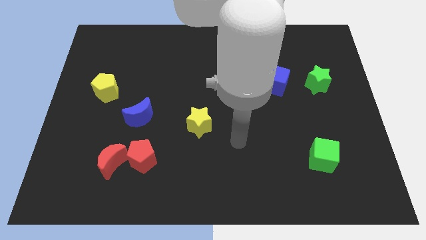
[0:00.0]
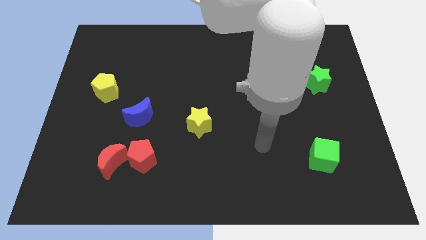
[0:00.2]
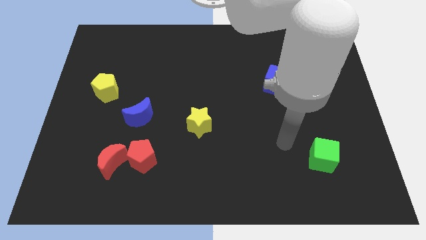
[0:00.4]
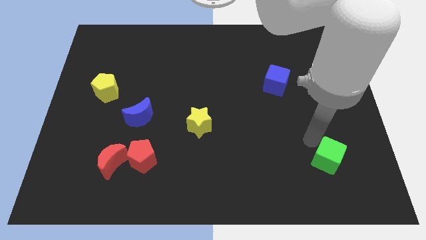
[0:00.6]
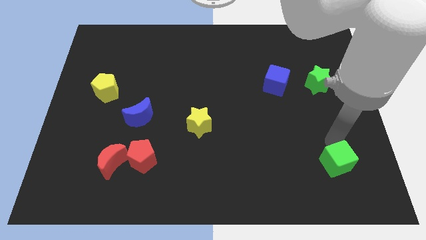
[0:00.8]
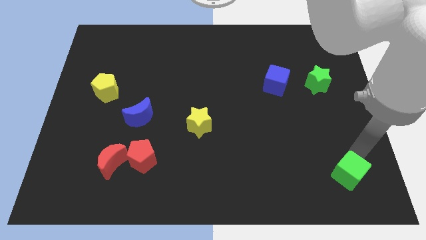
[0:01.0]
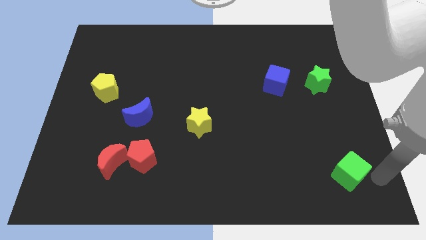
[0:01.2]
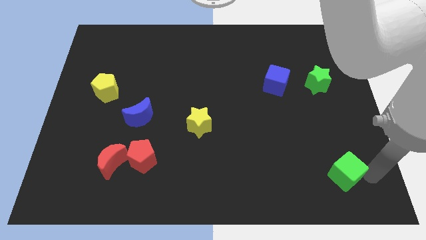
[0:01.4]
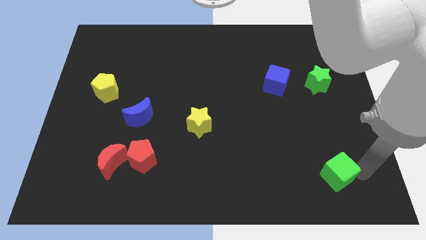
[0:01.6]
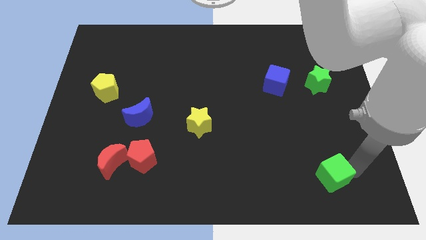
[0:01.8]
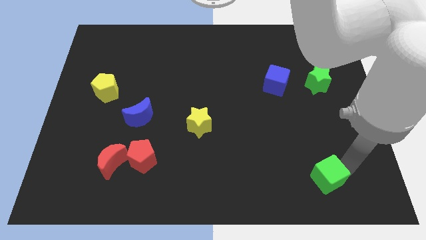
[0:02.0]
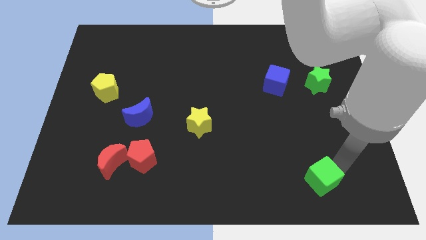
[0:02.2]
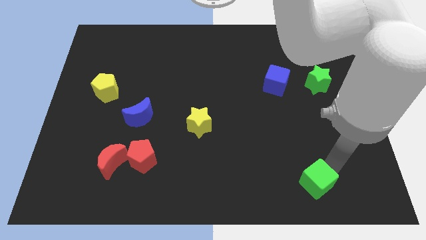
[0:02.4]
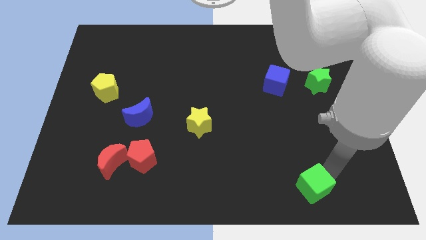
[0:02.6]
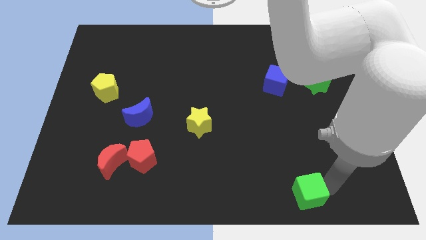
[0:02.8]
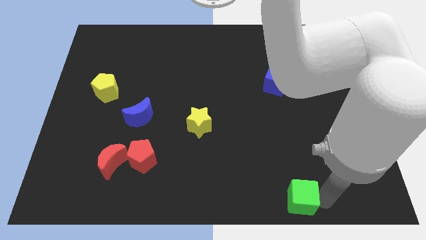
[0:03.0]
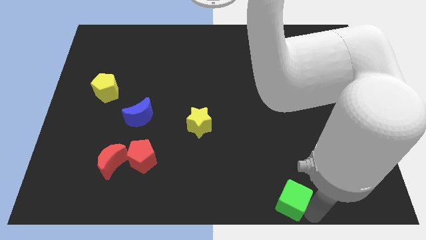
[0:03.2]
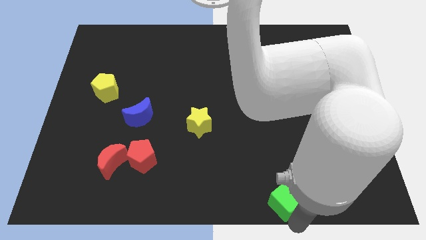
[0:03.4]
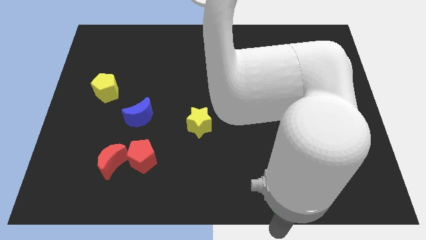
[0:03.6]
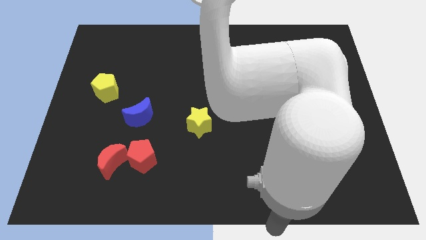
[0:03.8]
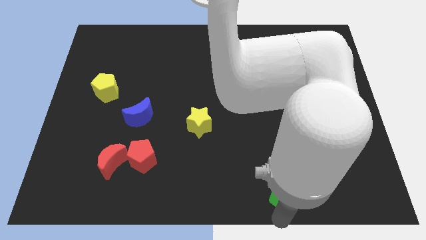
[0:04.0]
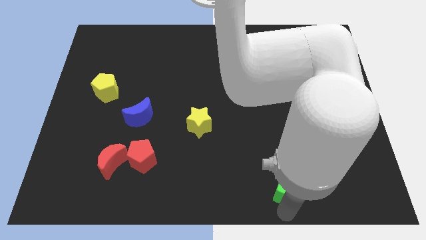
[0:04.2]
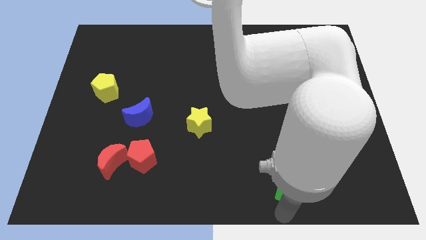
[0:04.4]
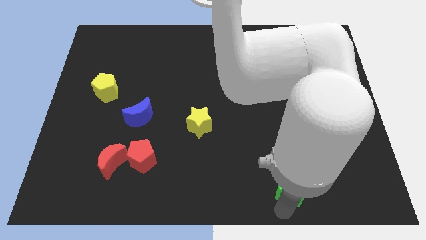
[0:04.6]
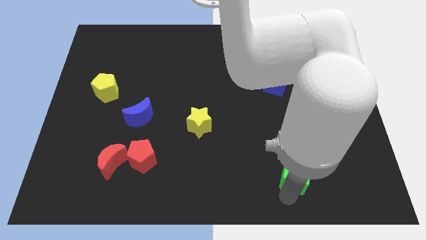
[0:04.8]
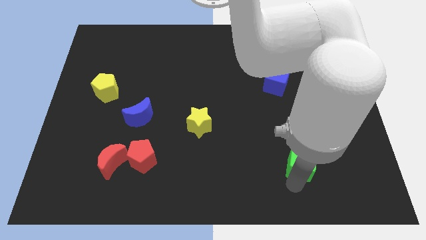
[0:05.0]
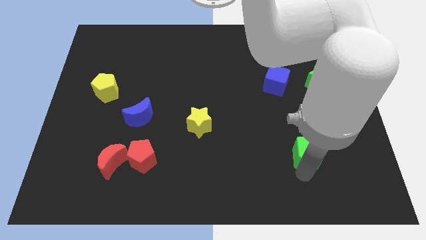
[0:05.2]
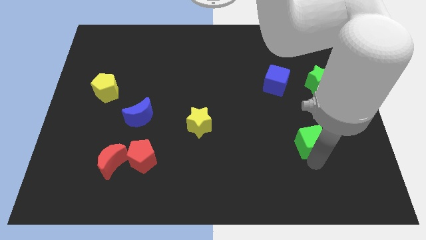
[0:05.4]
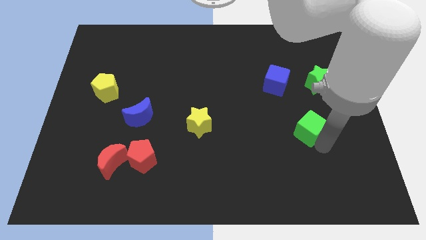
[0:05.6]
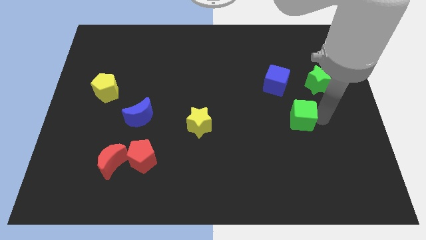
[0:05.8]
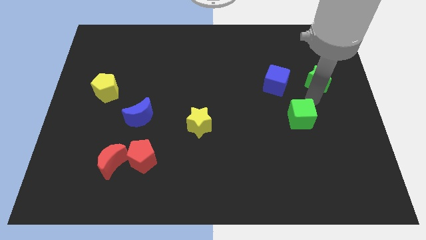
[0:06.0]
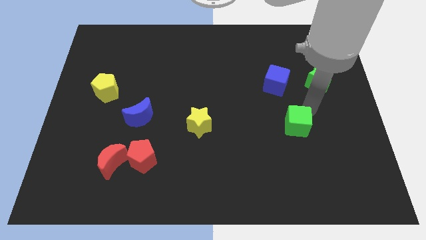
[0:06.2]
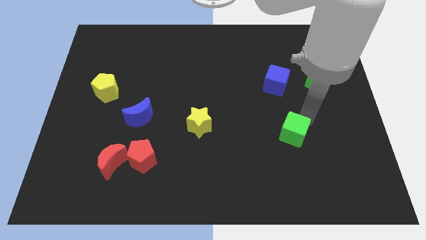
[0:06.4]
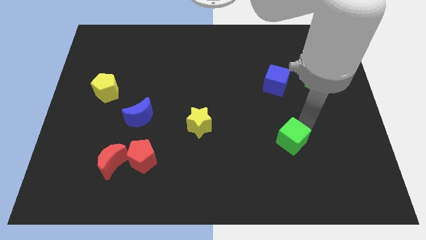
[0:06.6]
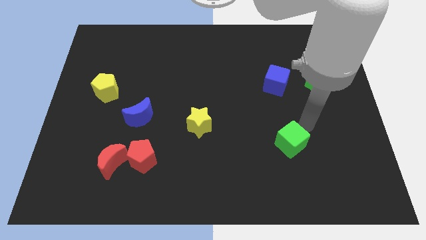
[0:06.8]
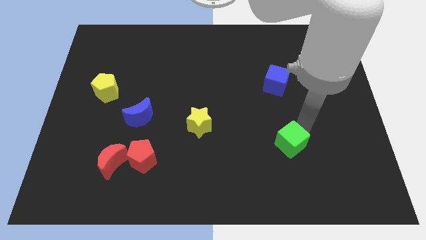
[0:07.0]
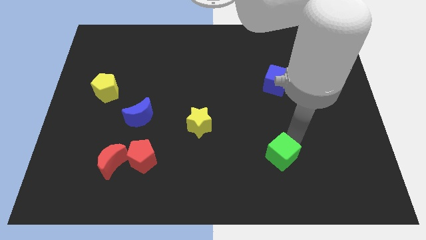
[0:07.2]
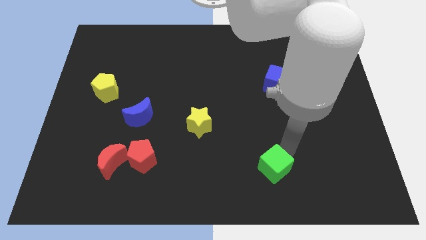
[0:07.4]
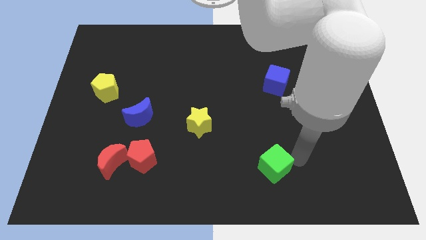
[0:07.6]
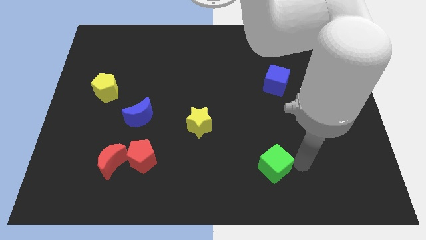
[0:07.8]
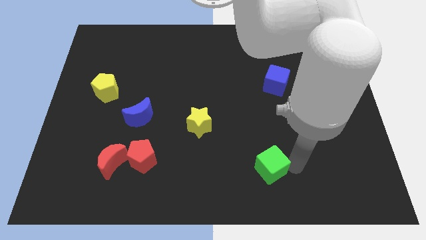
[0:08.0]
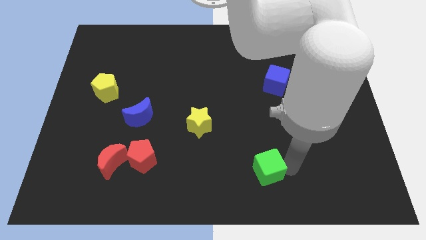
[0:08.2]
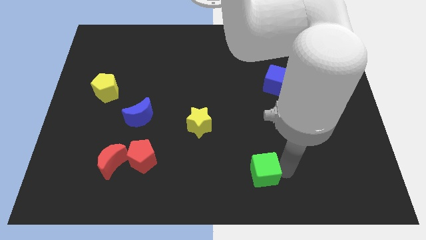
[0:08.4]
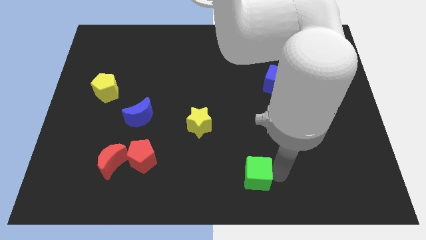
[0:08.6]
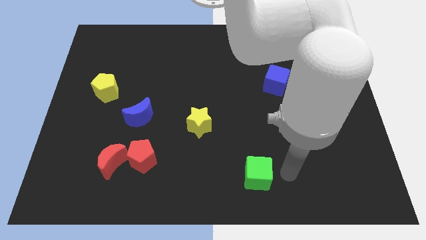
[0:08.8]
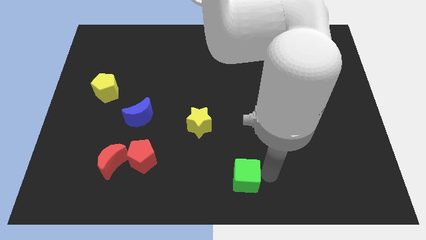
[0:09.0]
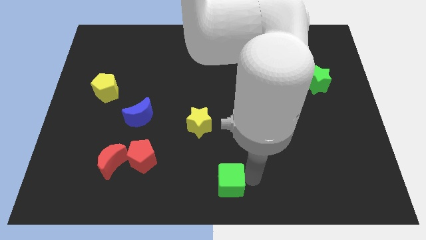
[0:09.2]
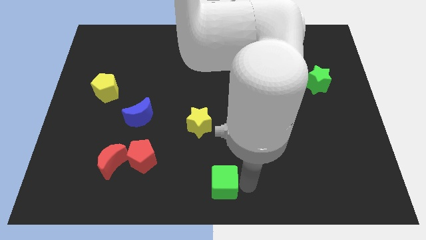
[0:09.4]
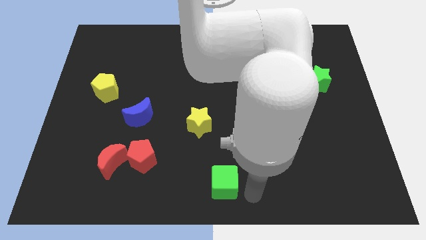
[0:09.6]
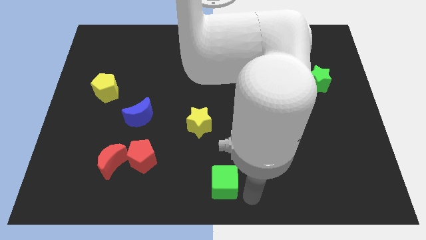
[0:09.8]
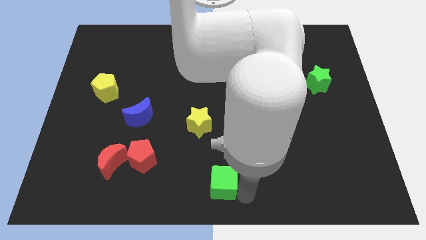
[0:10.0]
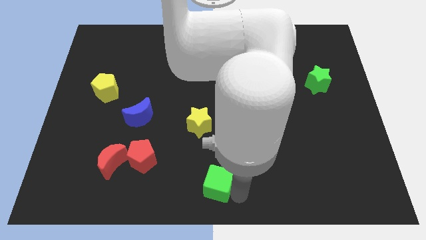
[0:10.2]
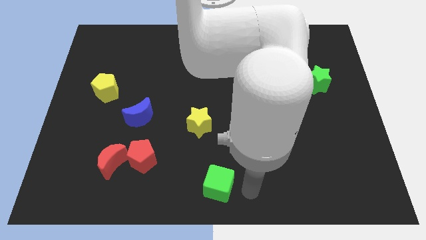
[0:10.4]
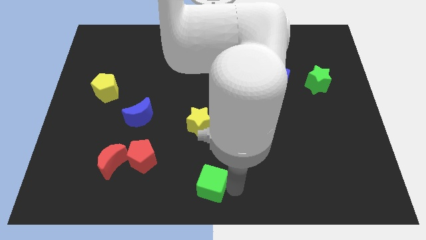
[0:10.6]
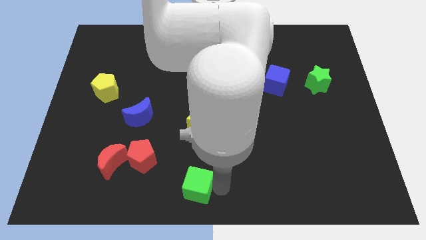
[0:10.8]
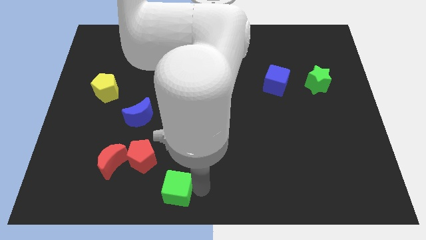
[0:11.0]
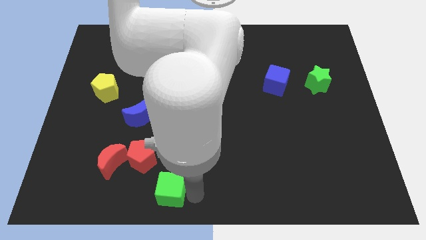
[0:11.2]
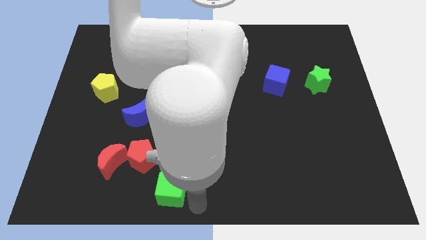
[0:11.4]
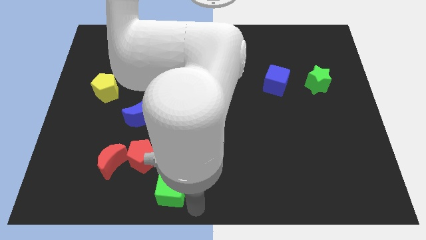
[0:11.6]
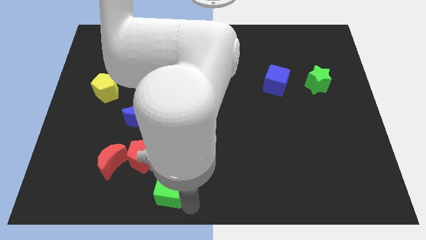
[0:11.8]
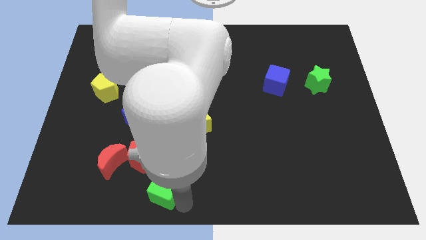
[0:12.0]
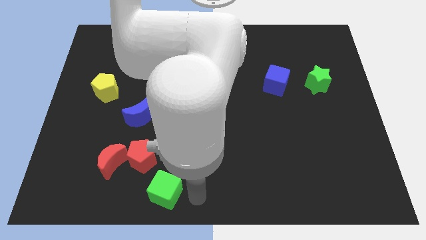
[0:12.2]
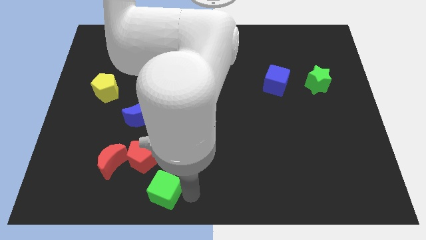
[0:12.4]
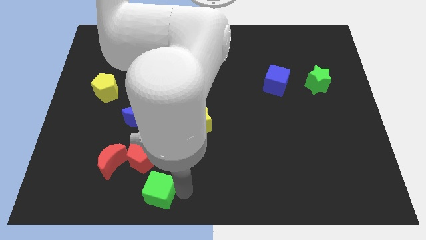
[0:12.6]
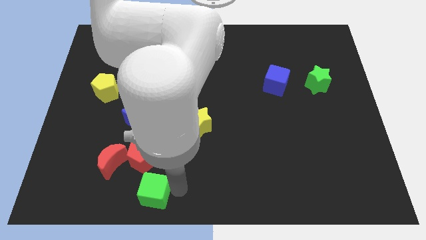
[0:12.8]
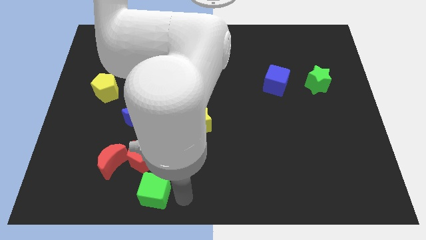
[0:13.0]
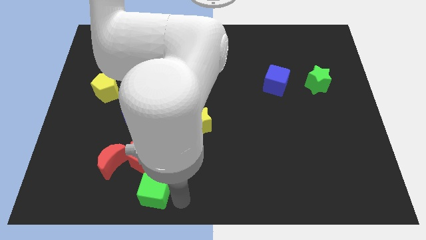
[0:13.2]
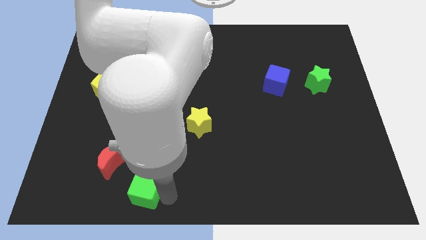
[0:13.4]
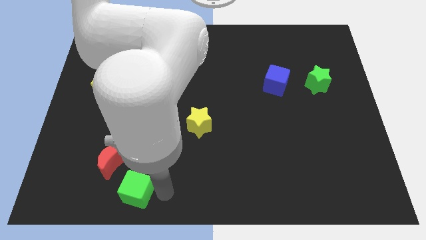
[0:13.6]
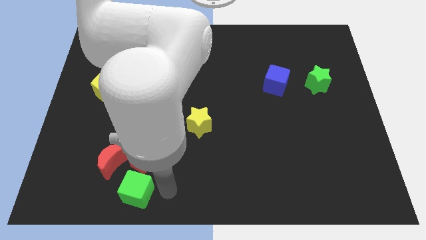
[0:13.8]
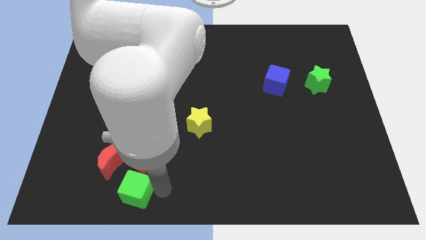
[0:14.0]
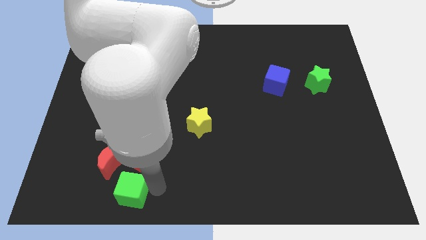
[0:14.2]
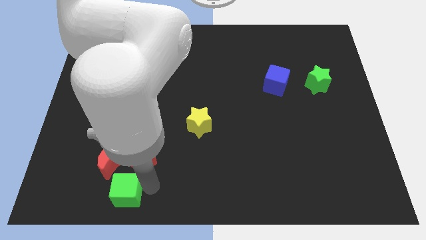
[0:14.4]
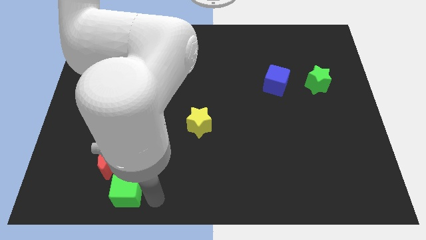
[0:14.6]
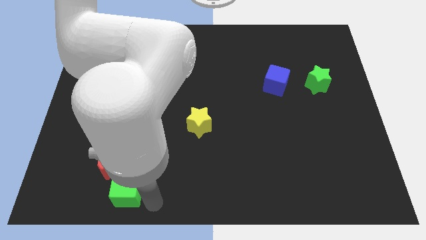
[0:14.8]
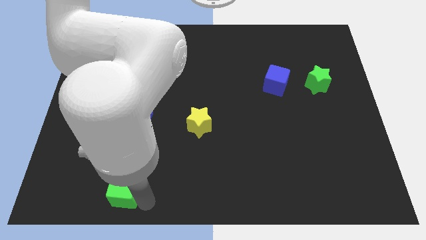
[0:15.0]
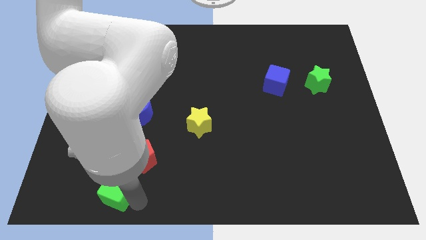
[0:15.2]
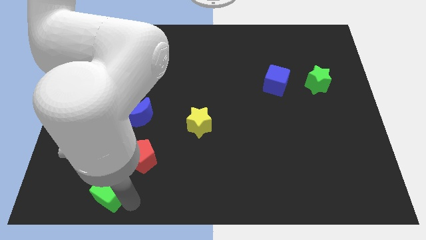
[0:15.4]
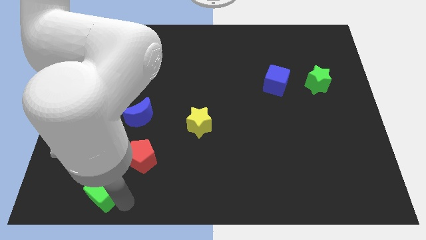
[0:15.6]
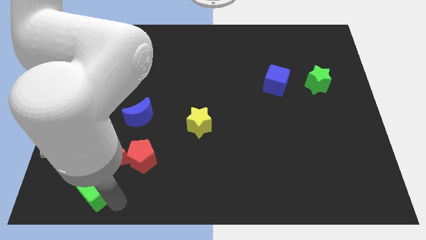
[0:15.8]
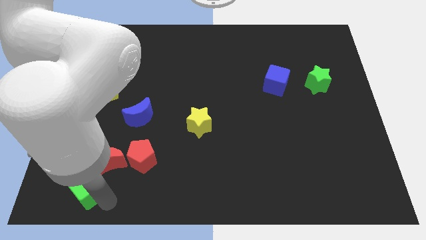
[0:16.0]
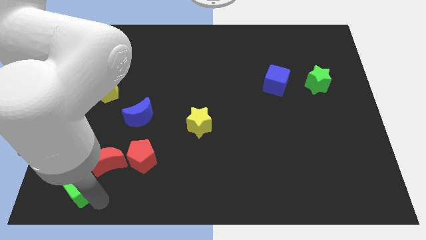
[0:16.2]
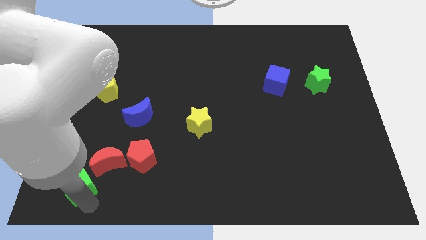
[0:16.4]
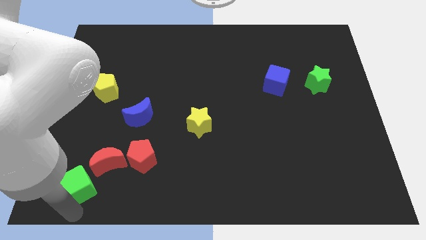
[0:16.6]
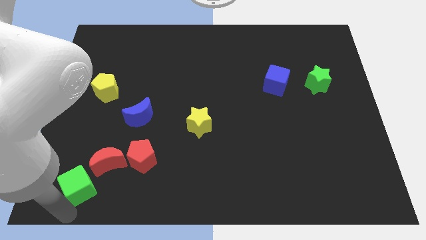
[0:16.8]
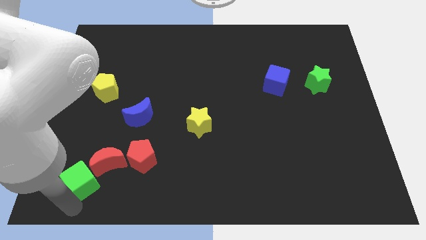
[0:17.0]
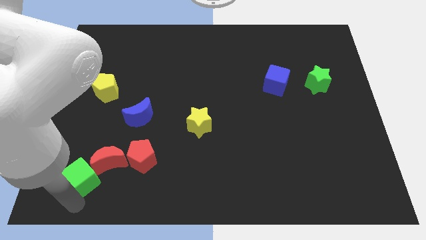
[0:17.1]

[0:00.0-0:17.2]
move the green cube just left of the red pentagon
